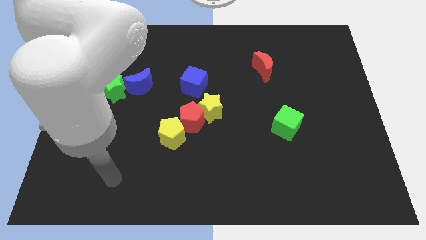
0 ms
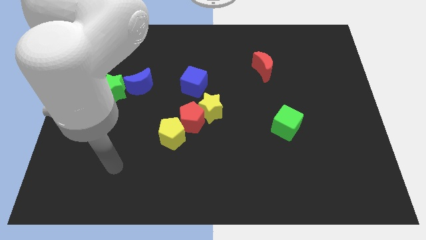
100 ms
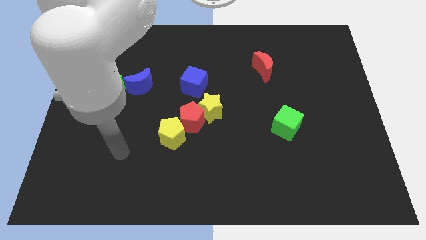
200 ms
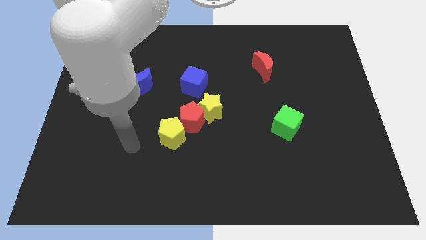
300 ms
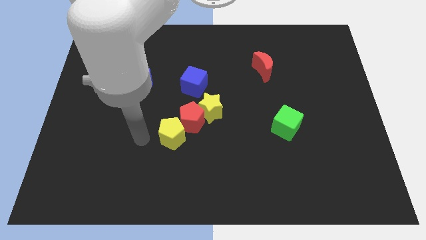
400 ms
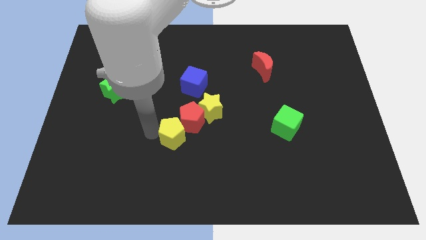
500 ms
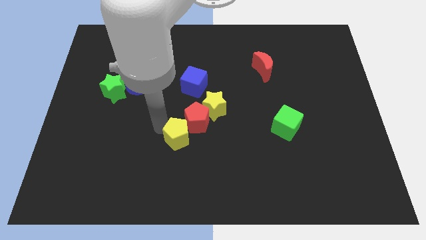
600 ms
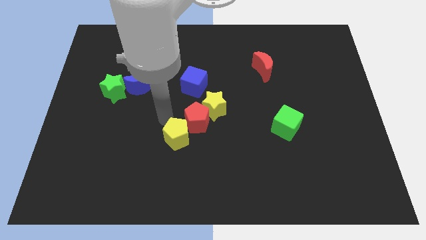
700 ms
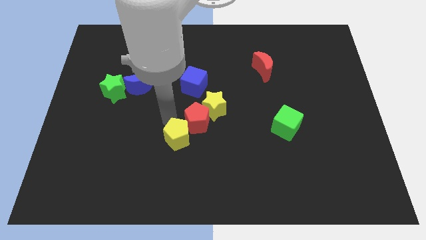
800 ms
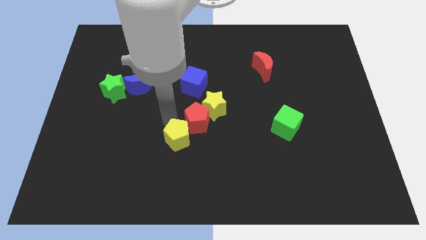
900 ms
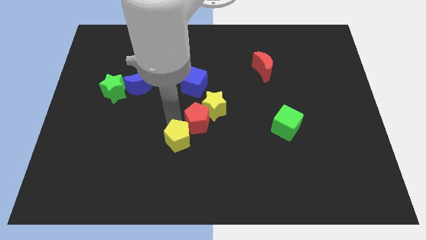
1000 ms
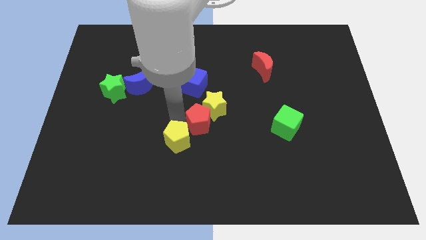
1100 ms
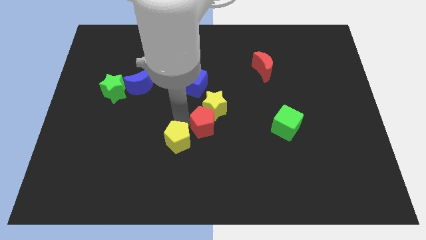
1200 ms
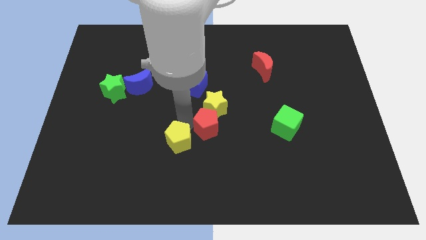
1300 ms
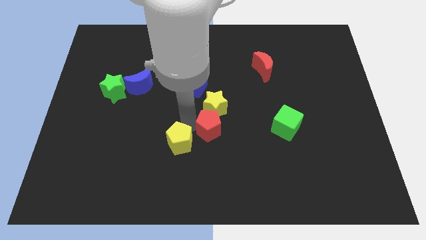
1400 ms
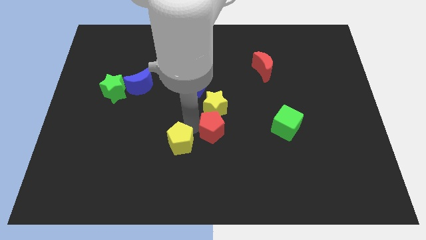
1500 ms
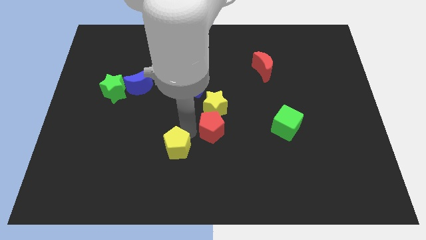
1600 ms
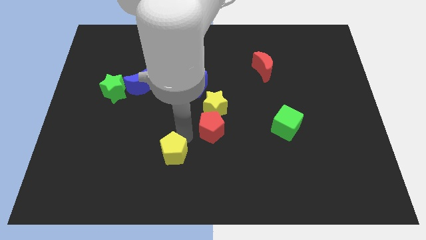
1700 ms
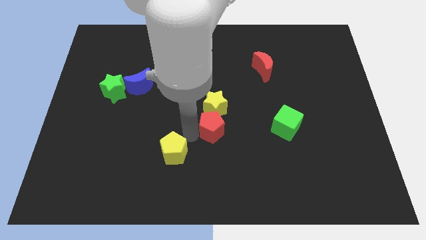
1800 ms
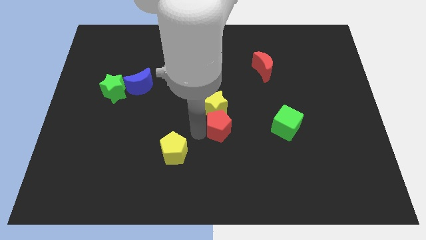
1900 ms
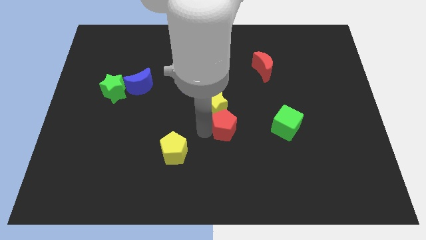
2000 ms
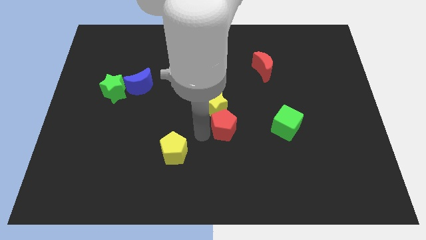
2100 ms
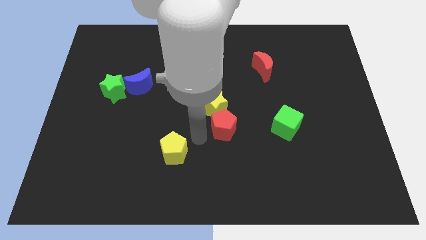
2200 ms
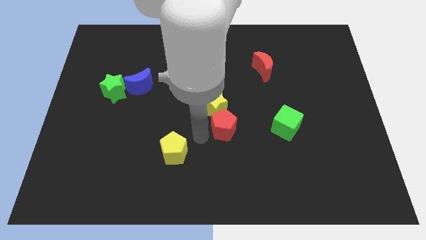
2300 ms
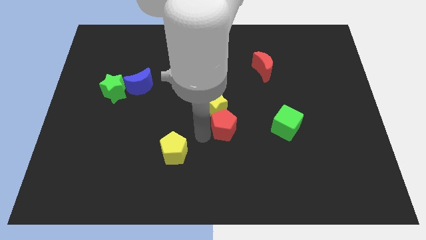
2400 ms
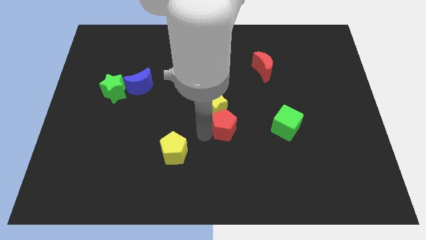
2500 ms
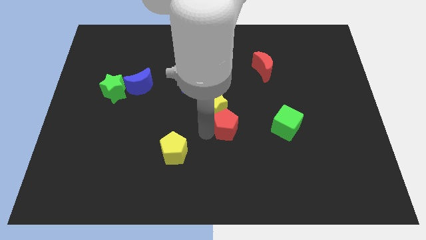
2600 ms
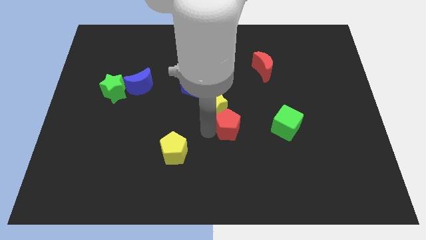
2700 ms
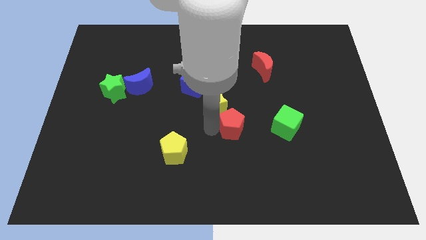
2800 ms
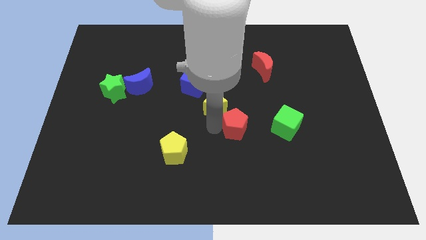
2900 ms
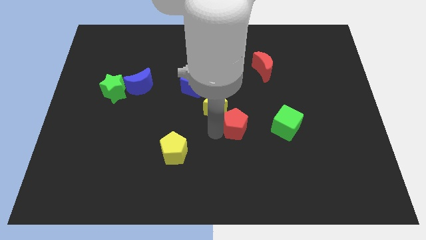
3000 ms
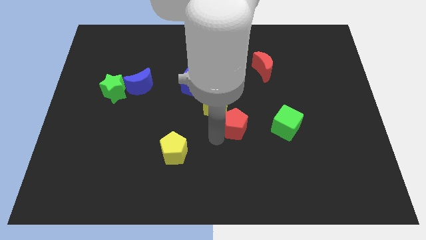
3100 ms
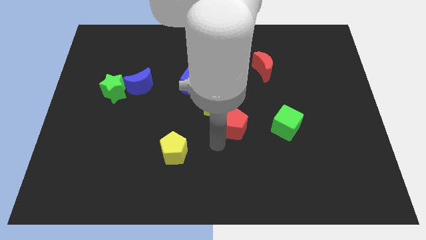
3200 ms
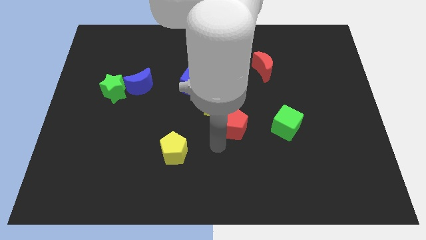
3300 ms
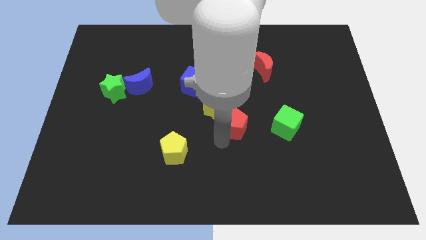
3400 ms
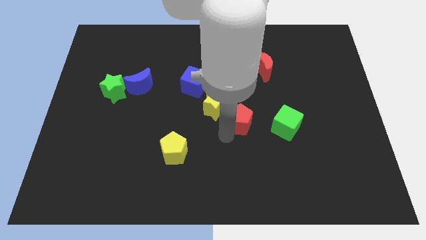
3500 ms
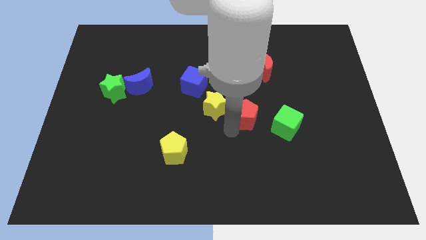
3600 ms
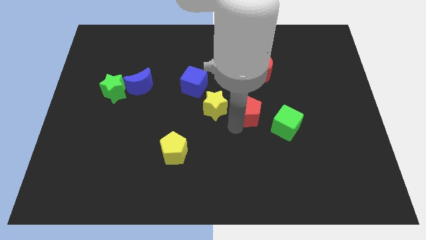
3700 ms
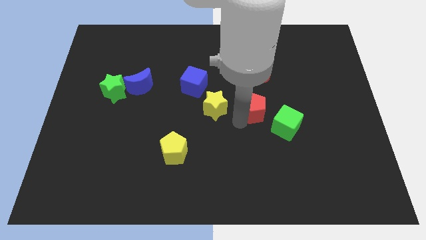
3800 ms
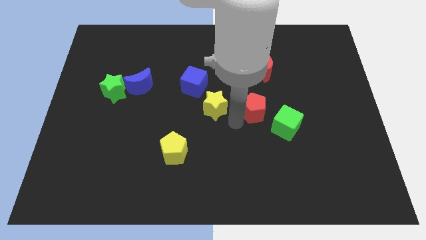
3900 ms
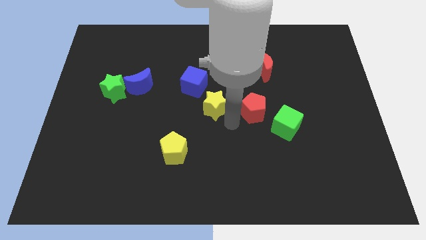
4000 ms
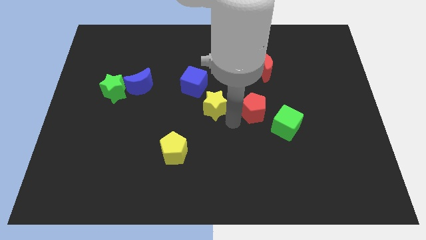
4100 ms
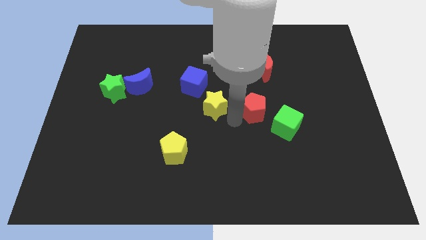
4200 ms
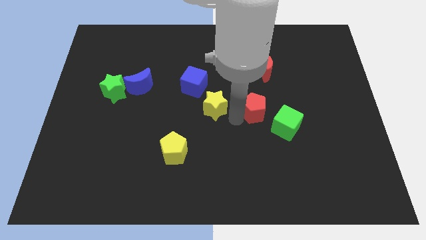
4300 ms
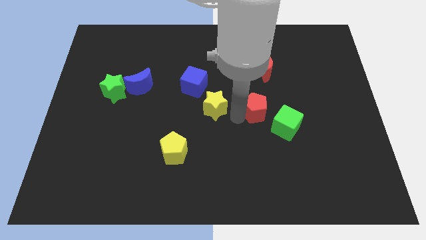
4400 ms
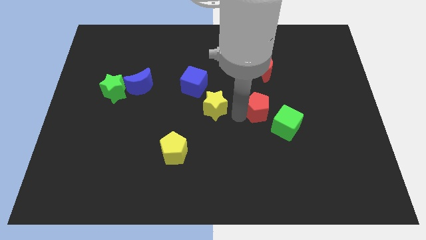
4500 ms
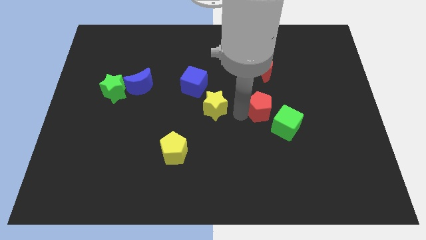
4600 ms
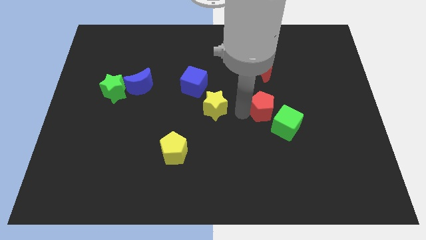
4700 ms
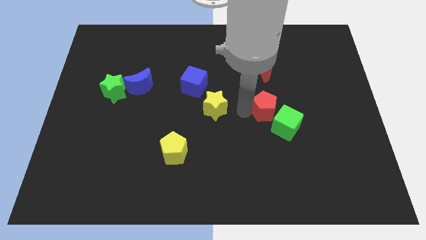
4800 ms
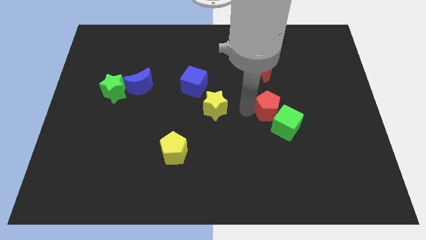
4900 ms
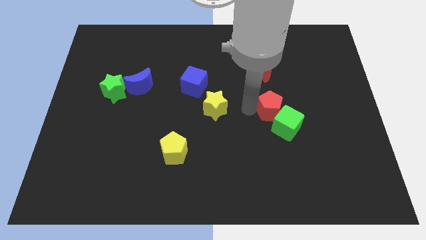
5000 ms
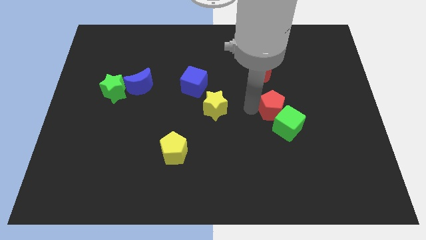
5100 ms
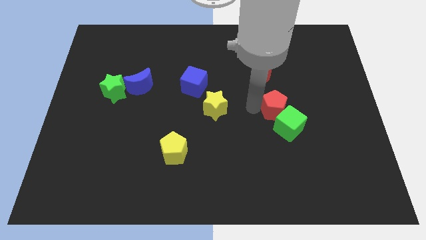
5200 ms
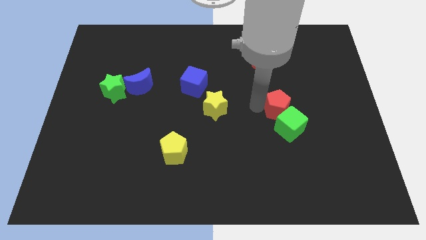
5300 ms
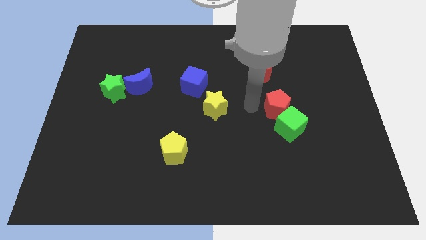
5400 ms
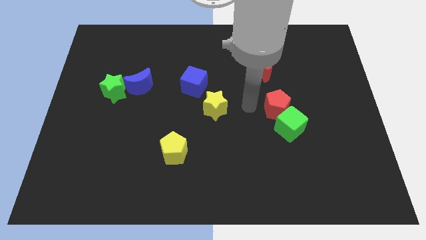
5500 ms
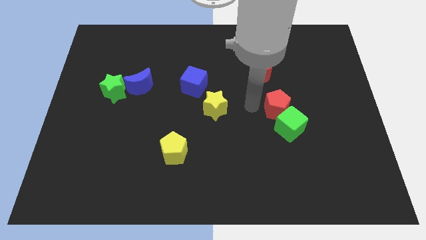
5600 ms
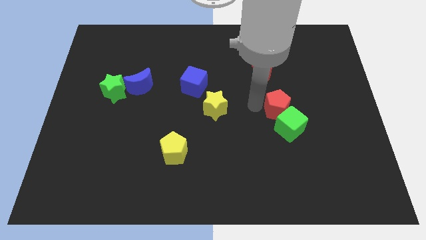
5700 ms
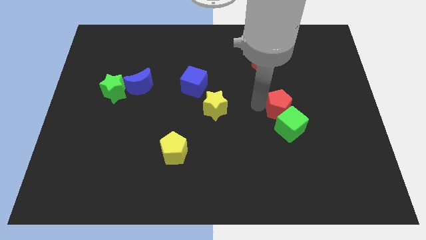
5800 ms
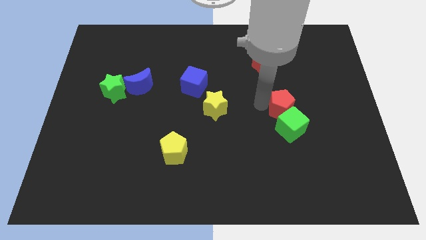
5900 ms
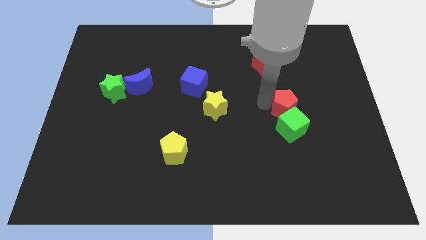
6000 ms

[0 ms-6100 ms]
move the red pentagon diagonally up and to the right of the green cube

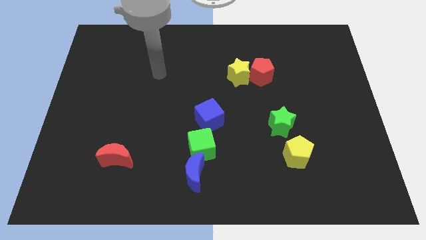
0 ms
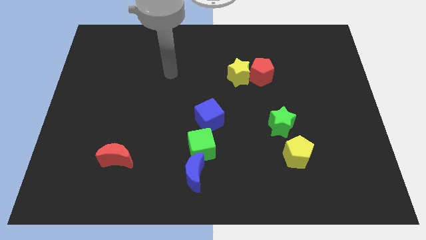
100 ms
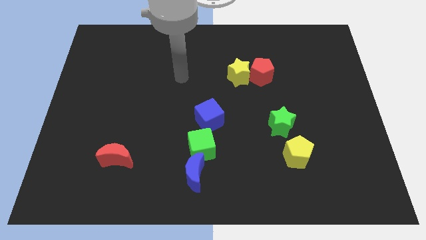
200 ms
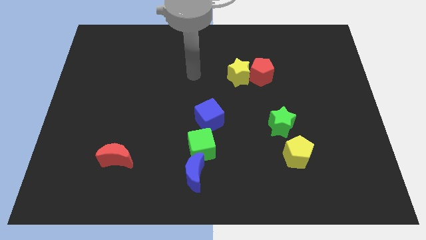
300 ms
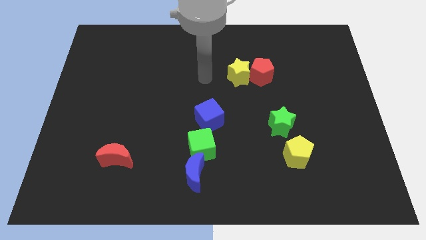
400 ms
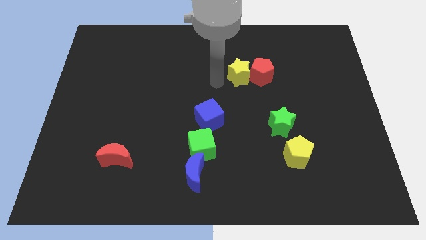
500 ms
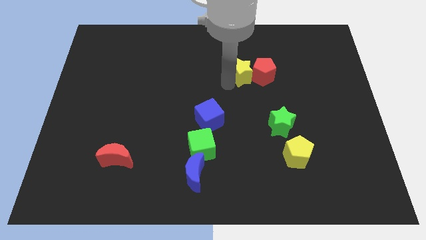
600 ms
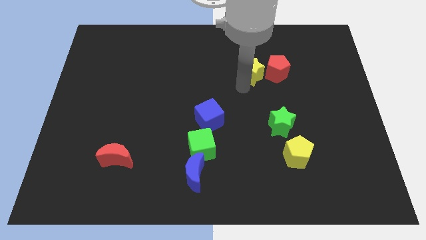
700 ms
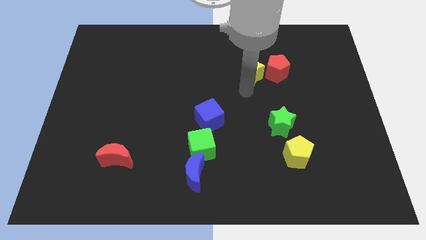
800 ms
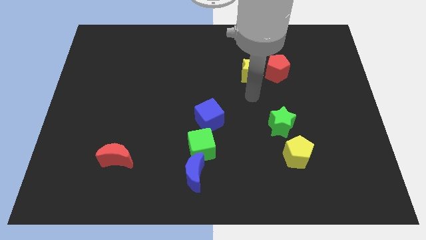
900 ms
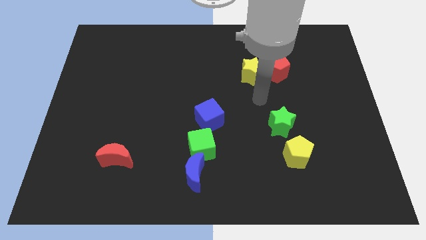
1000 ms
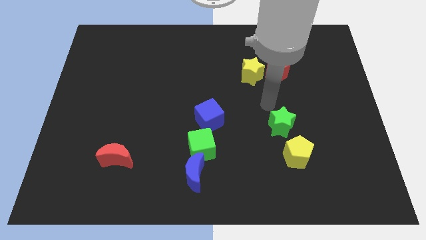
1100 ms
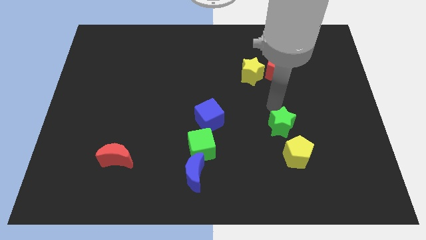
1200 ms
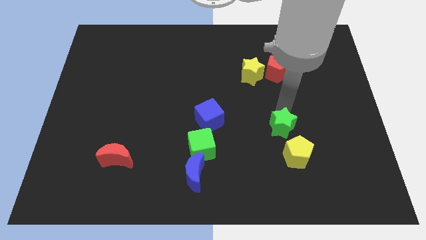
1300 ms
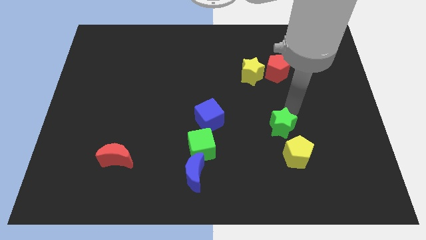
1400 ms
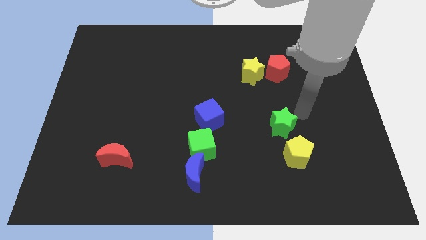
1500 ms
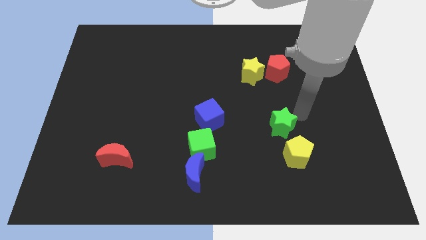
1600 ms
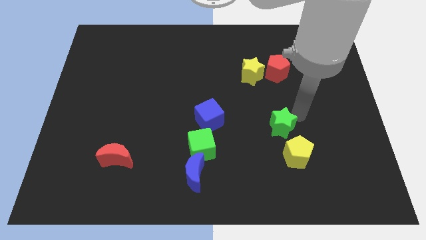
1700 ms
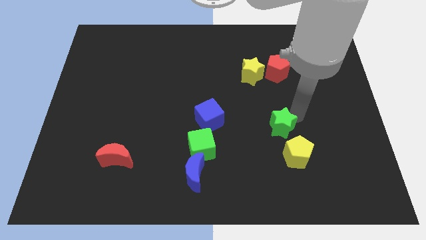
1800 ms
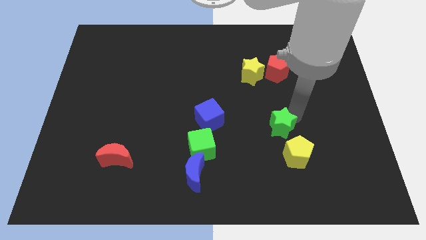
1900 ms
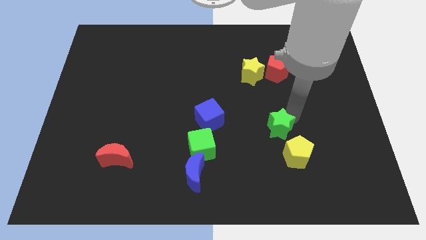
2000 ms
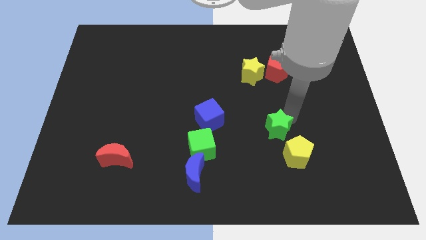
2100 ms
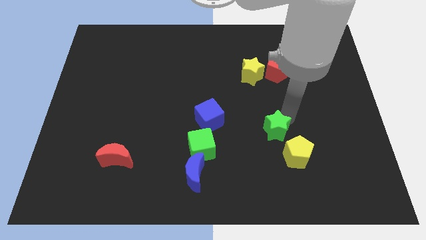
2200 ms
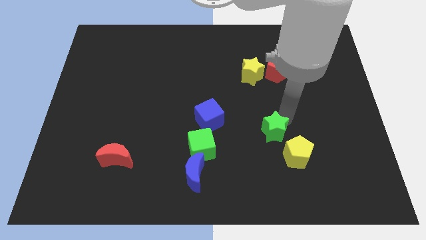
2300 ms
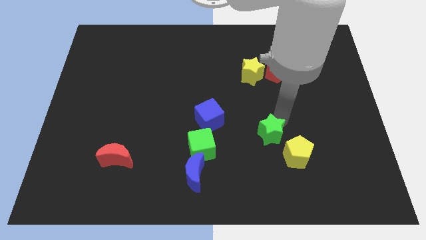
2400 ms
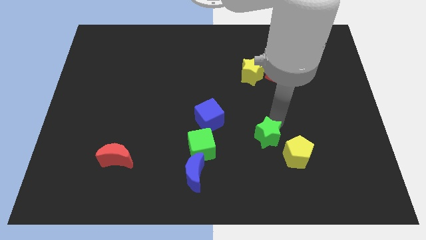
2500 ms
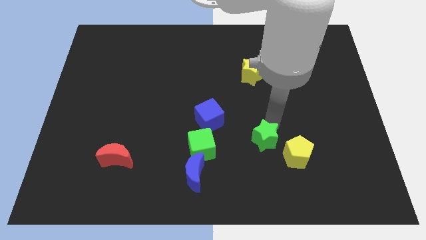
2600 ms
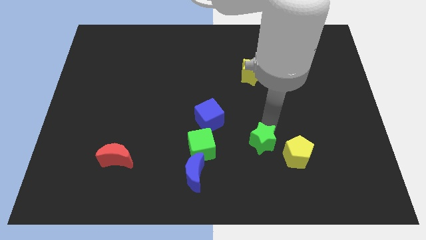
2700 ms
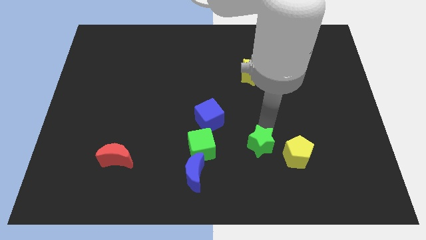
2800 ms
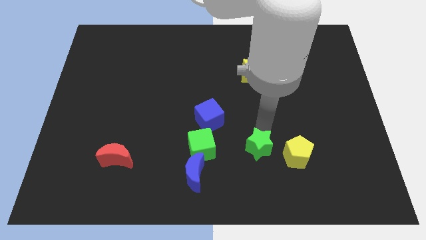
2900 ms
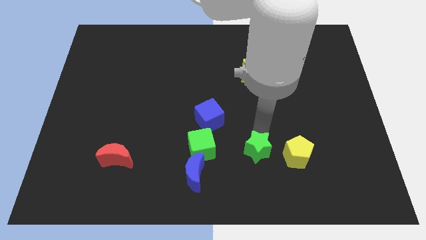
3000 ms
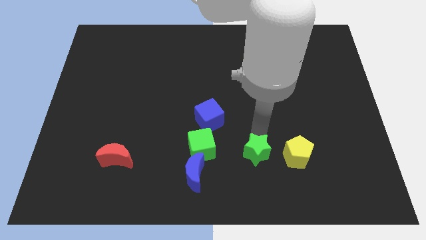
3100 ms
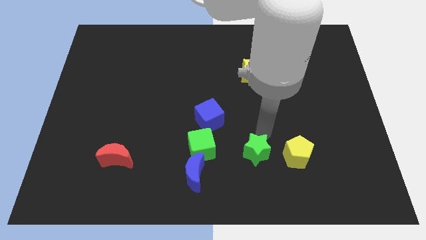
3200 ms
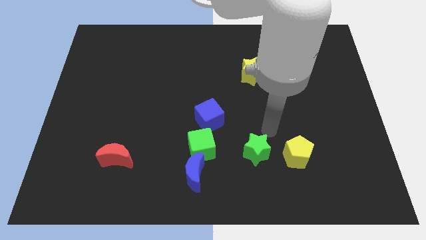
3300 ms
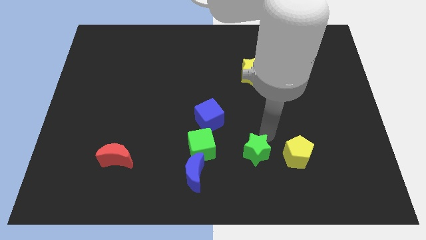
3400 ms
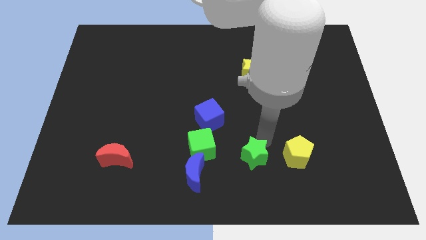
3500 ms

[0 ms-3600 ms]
slide the green star just right of the blue moon
